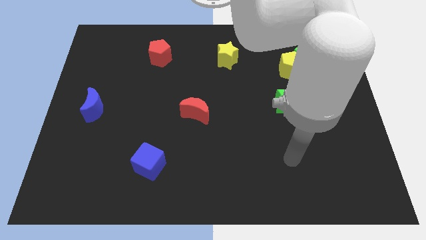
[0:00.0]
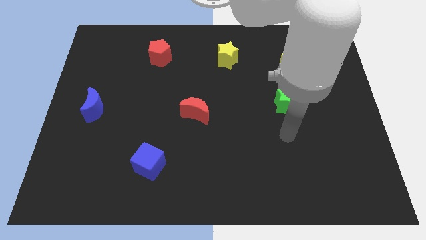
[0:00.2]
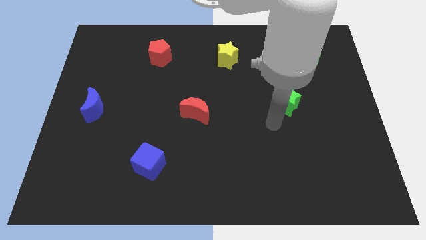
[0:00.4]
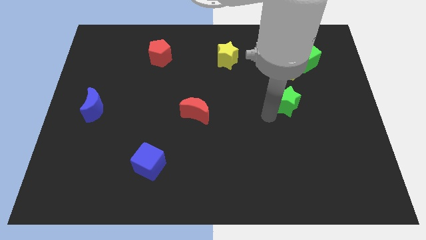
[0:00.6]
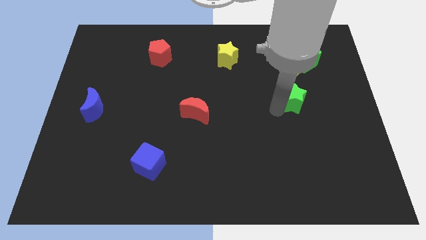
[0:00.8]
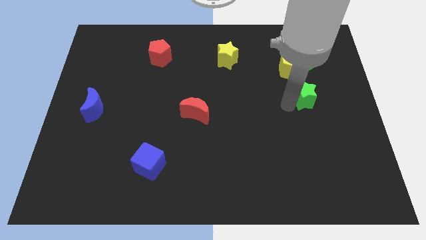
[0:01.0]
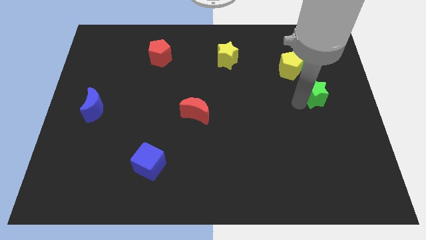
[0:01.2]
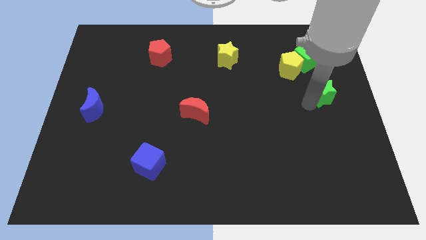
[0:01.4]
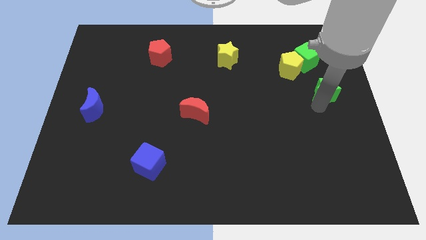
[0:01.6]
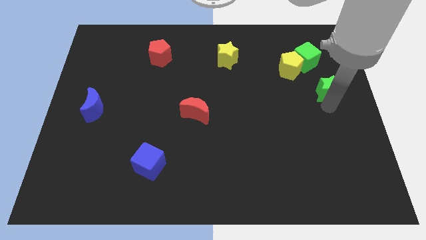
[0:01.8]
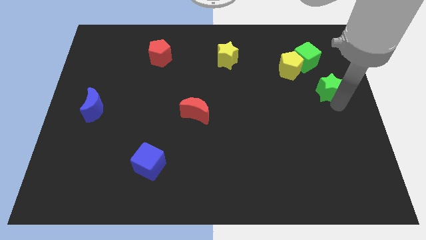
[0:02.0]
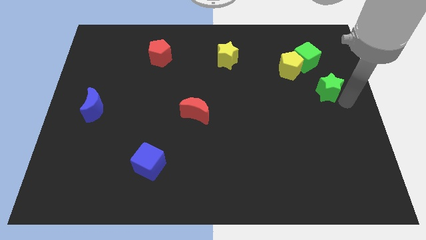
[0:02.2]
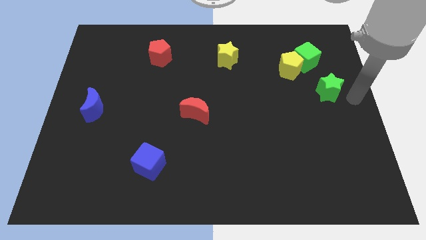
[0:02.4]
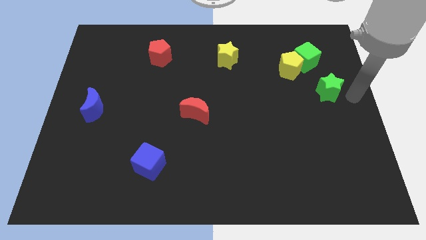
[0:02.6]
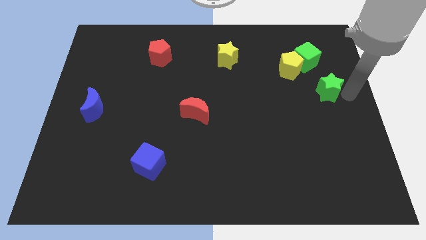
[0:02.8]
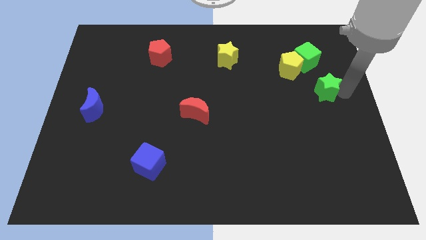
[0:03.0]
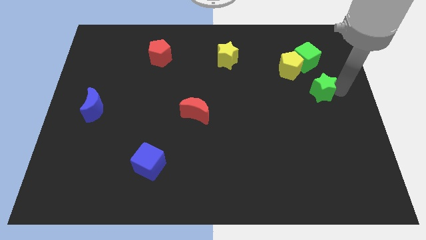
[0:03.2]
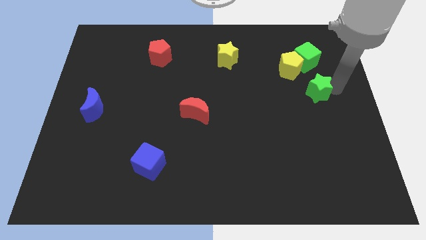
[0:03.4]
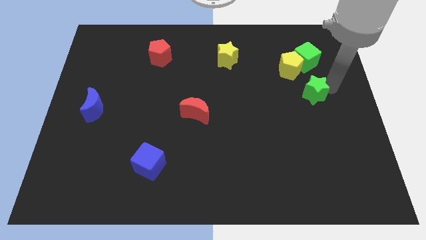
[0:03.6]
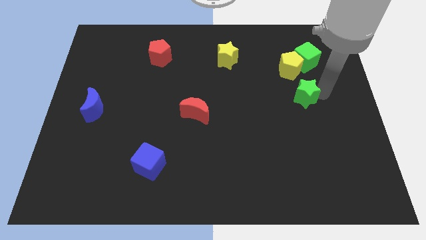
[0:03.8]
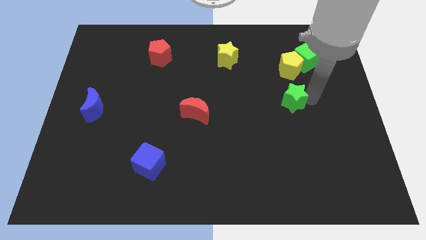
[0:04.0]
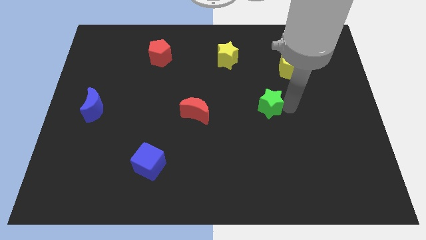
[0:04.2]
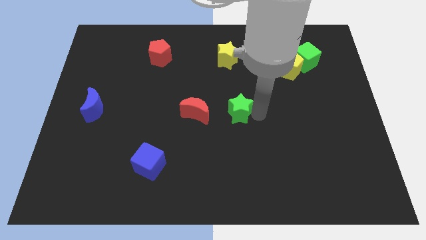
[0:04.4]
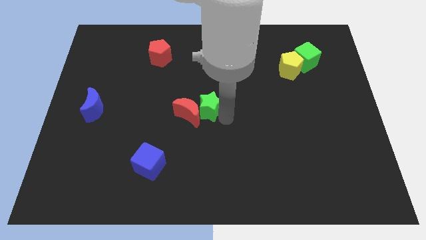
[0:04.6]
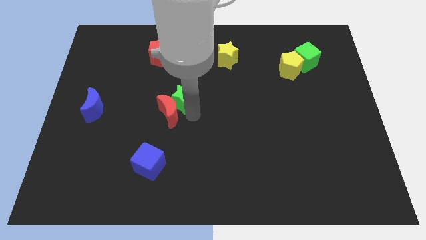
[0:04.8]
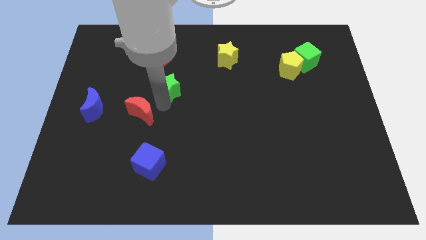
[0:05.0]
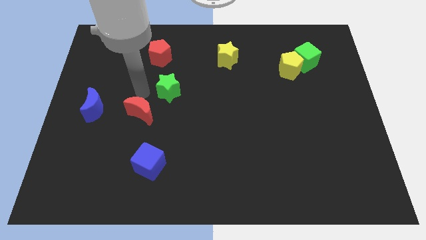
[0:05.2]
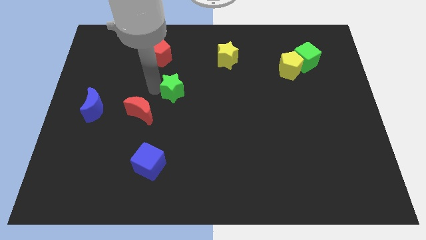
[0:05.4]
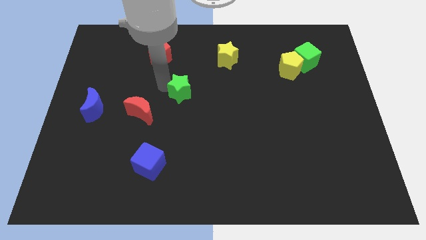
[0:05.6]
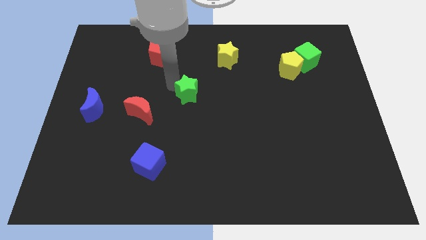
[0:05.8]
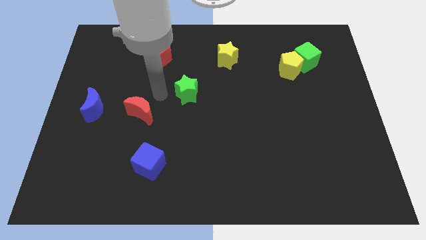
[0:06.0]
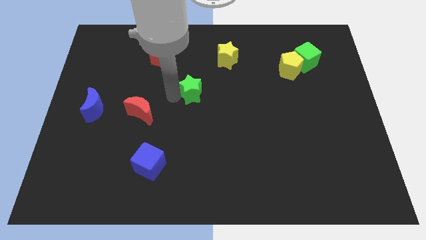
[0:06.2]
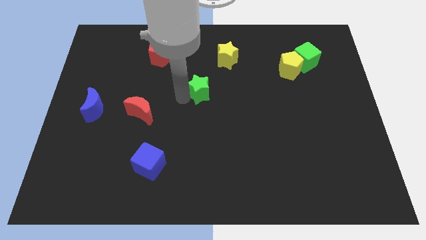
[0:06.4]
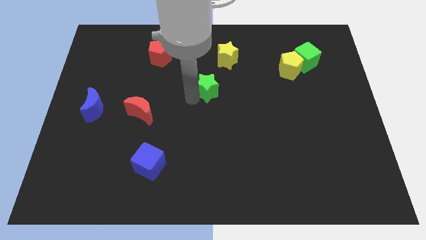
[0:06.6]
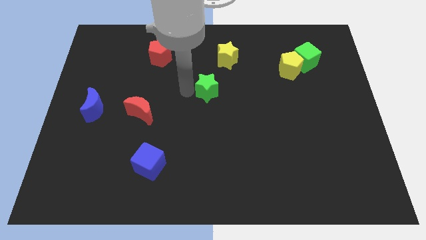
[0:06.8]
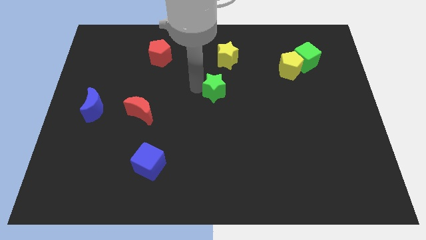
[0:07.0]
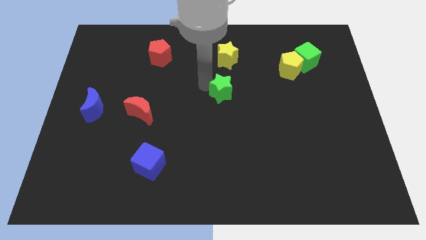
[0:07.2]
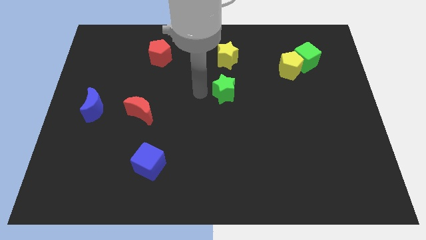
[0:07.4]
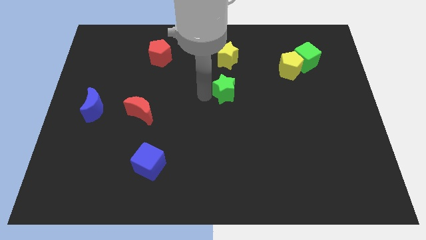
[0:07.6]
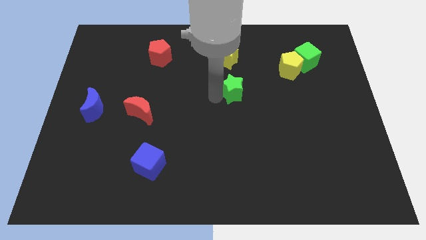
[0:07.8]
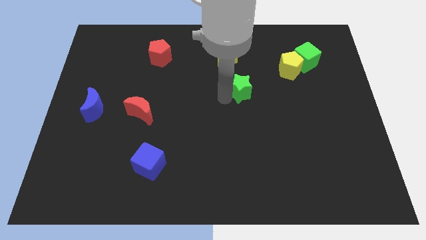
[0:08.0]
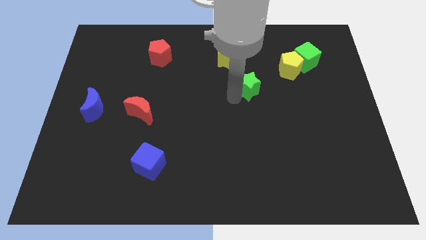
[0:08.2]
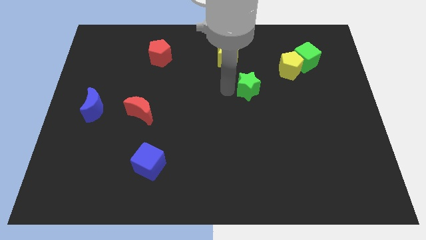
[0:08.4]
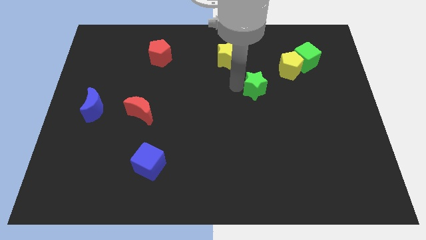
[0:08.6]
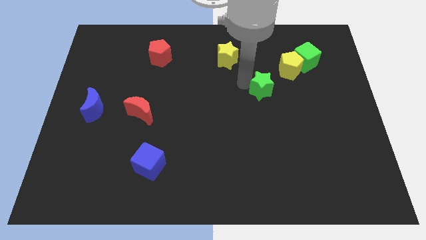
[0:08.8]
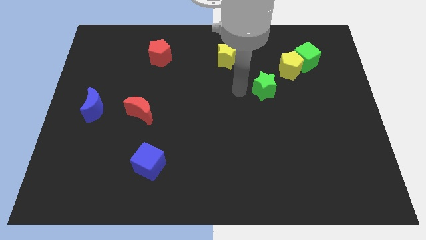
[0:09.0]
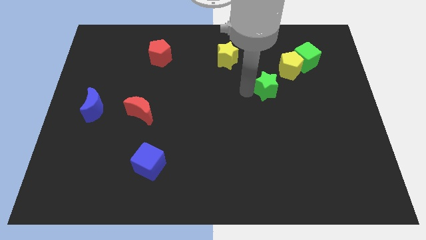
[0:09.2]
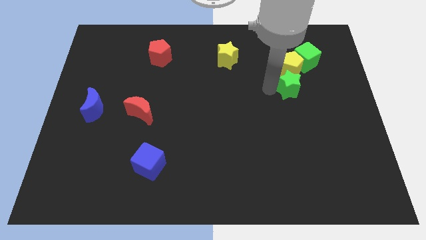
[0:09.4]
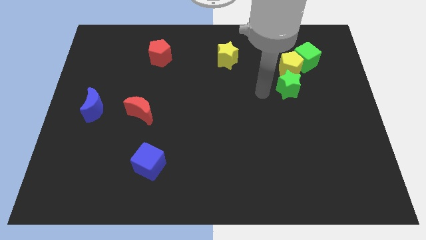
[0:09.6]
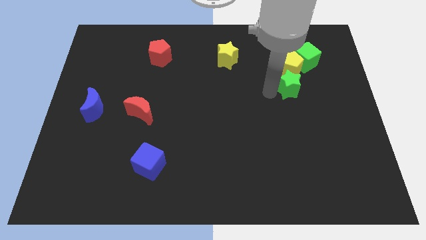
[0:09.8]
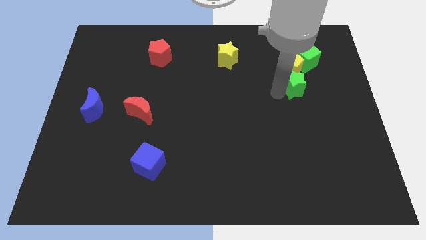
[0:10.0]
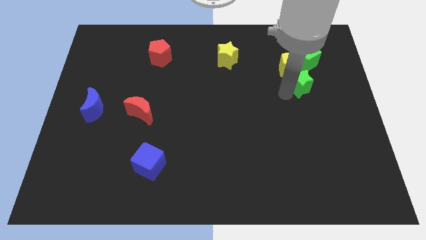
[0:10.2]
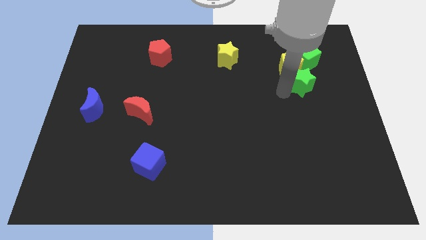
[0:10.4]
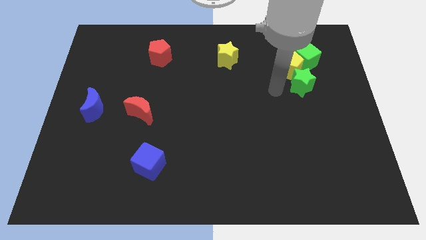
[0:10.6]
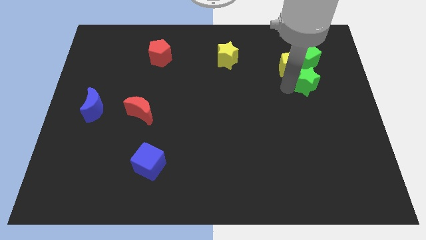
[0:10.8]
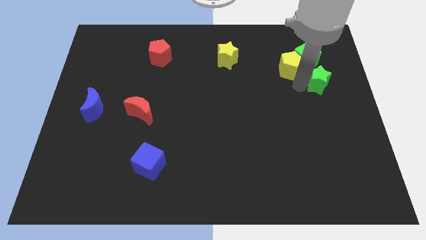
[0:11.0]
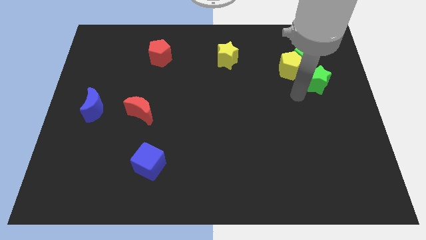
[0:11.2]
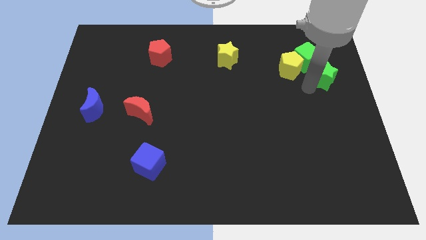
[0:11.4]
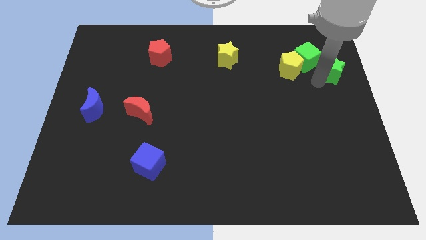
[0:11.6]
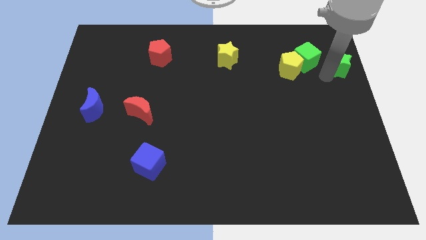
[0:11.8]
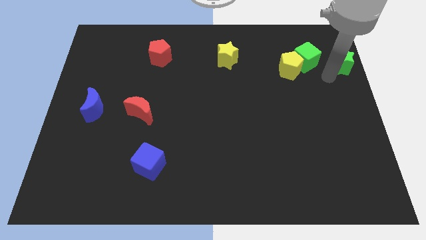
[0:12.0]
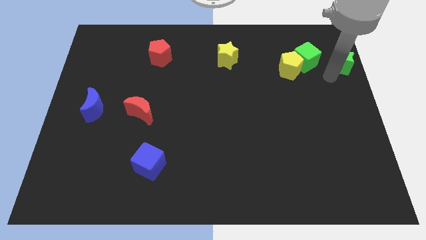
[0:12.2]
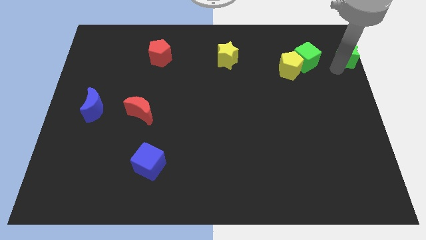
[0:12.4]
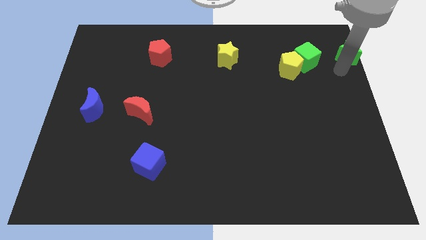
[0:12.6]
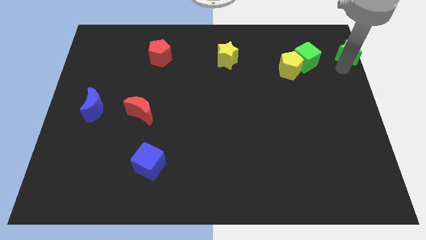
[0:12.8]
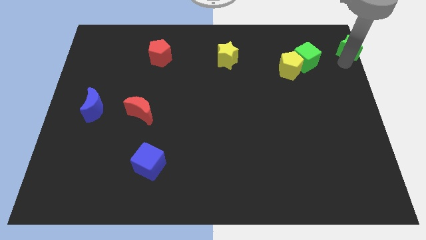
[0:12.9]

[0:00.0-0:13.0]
move the green star to the upper right corner
